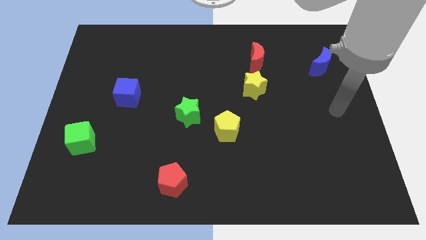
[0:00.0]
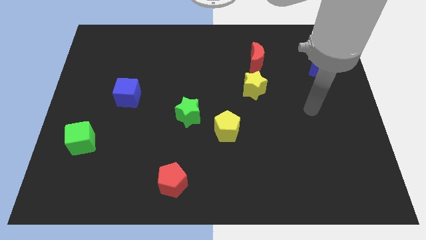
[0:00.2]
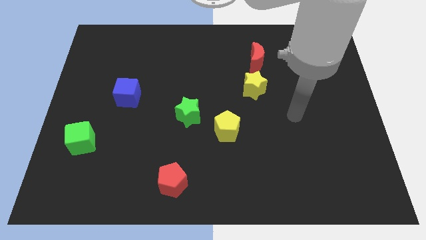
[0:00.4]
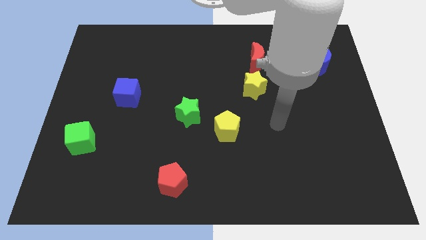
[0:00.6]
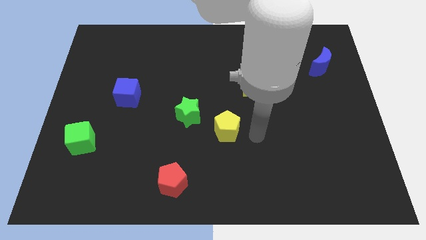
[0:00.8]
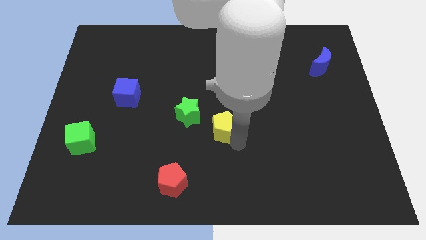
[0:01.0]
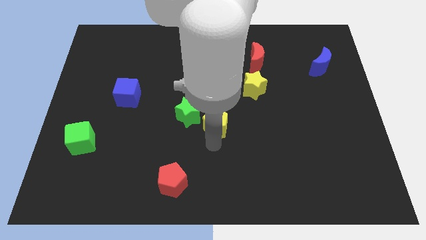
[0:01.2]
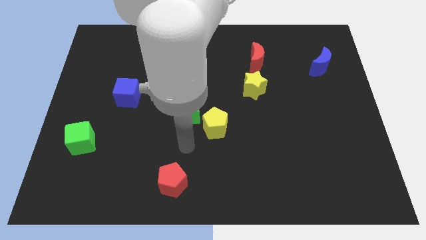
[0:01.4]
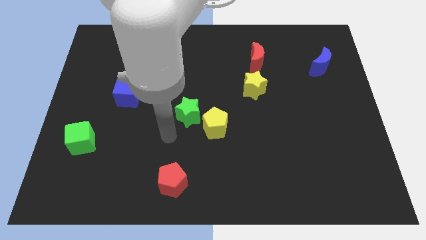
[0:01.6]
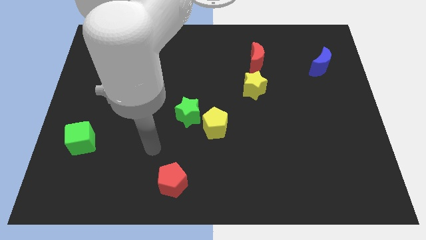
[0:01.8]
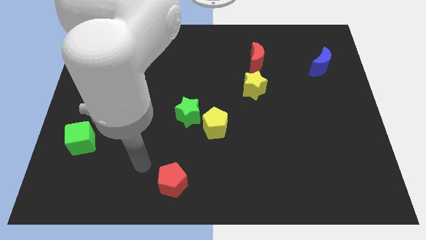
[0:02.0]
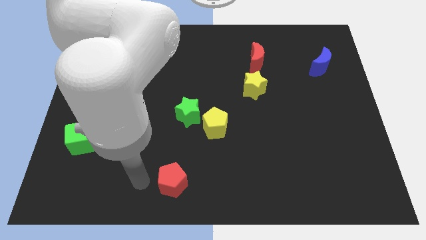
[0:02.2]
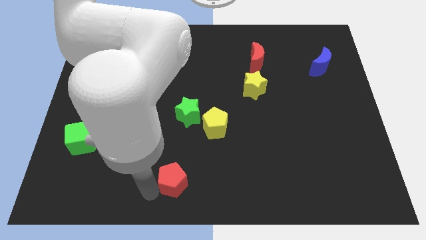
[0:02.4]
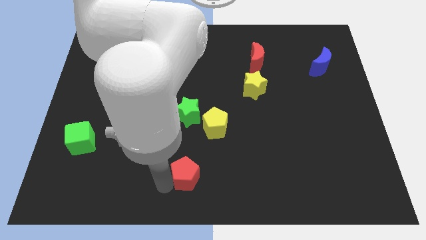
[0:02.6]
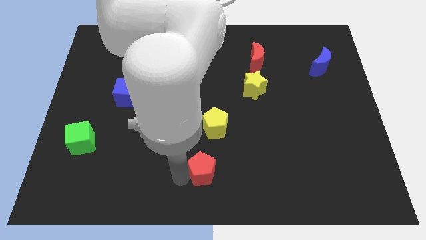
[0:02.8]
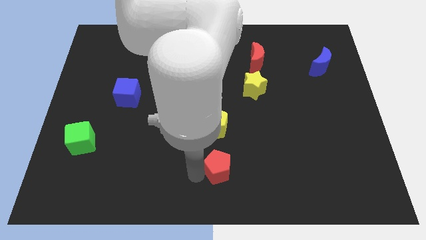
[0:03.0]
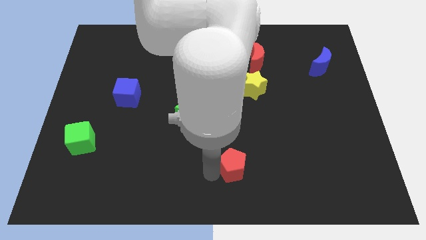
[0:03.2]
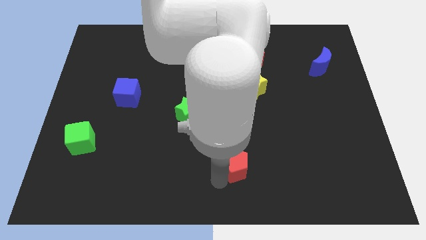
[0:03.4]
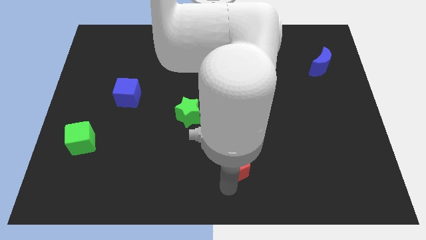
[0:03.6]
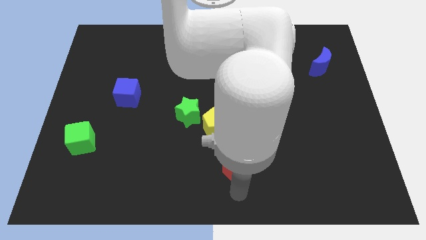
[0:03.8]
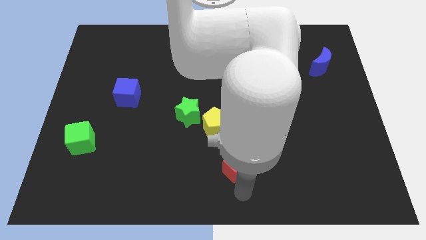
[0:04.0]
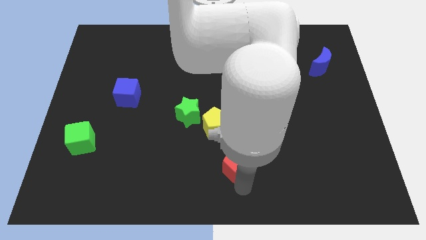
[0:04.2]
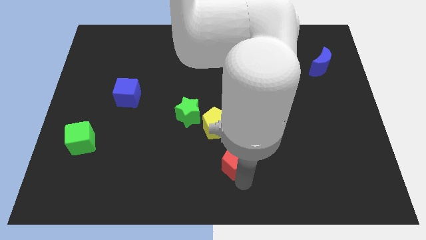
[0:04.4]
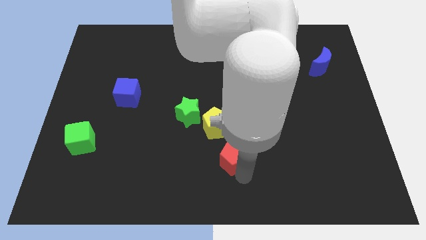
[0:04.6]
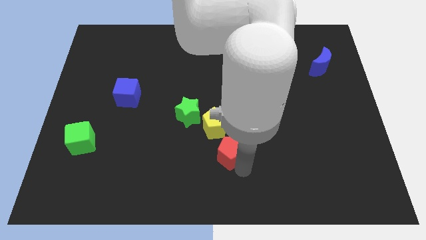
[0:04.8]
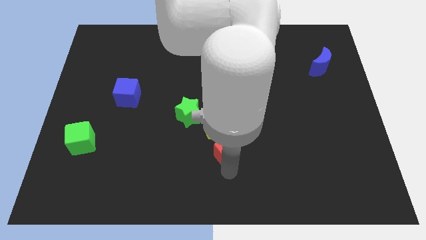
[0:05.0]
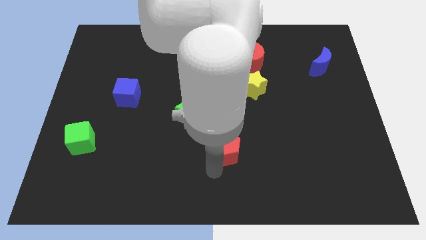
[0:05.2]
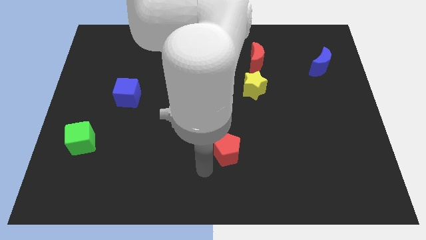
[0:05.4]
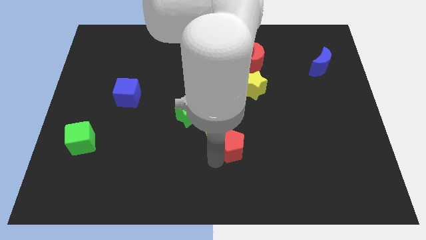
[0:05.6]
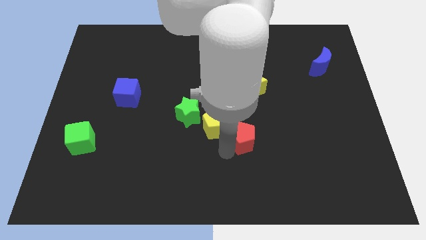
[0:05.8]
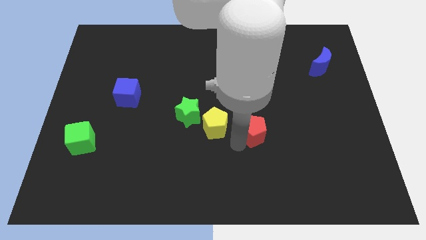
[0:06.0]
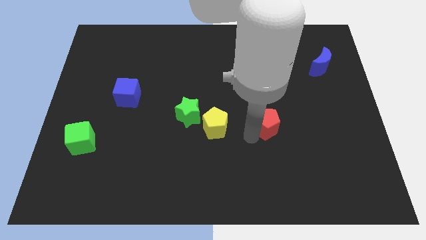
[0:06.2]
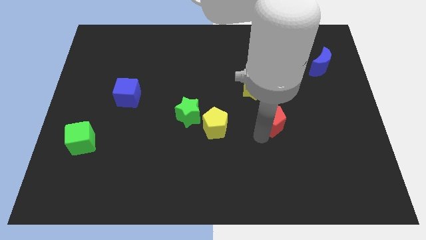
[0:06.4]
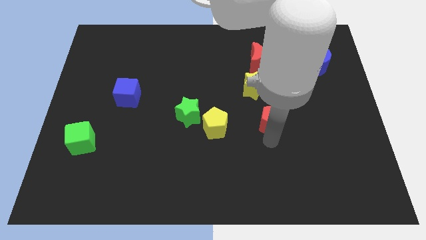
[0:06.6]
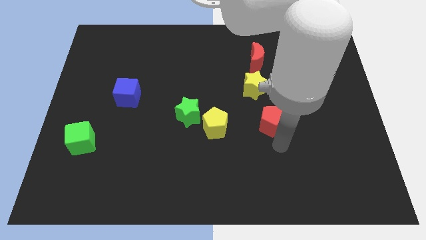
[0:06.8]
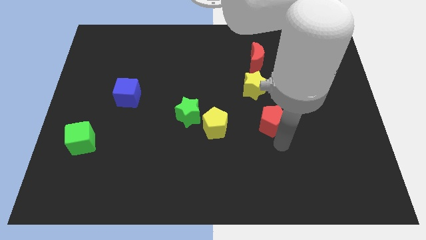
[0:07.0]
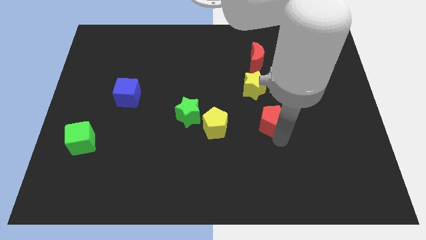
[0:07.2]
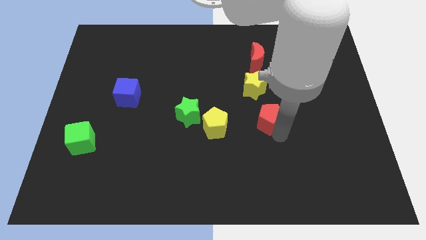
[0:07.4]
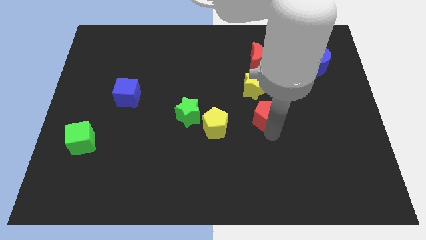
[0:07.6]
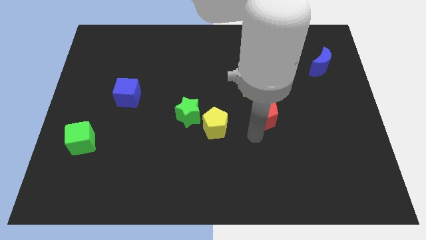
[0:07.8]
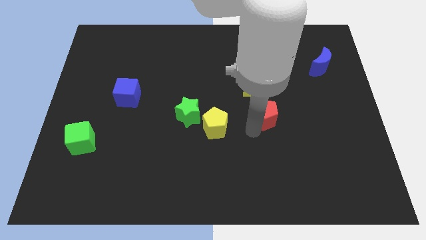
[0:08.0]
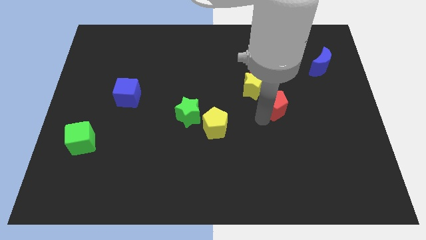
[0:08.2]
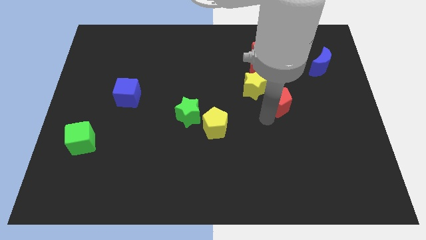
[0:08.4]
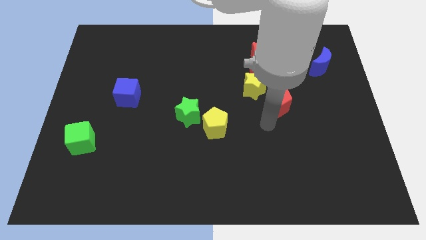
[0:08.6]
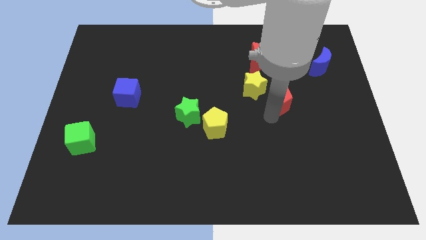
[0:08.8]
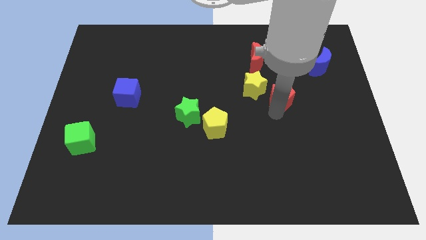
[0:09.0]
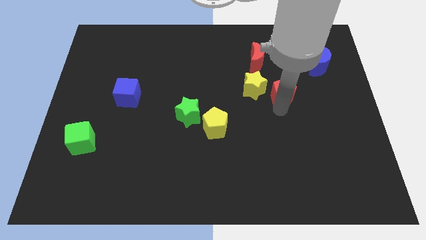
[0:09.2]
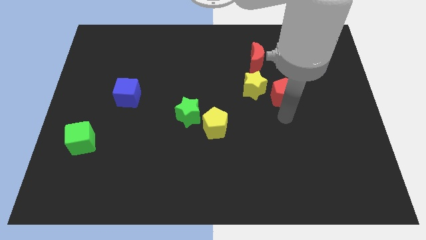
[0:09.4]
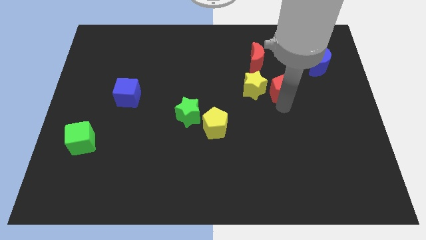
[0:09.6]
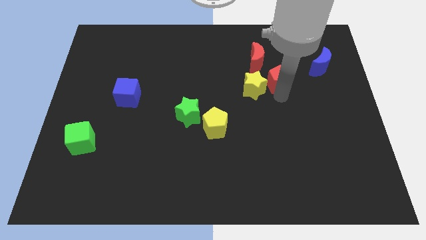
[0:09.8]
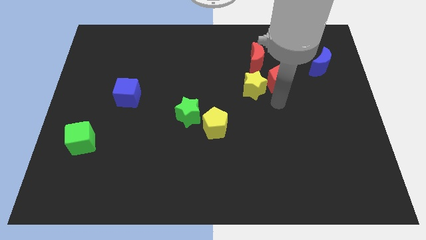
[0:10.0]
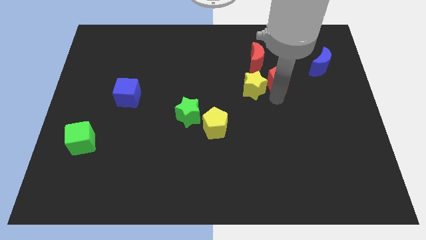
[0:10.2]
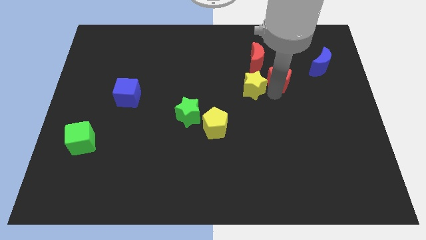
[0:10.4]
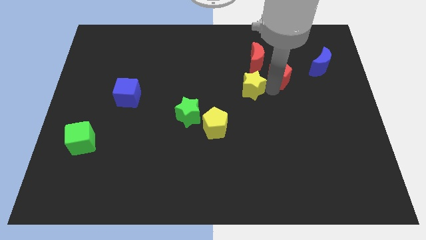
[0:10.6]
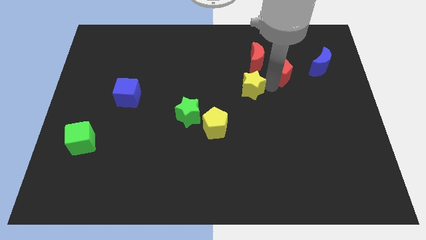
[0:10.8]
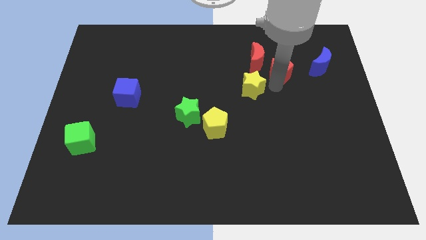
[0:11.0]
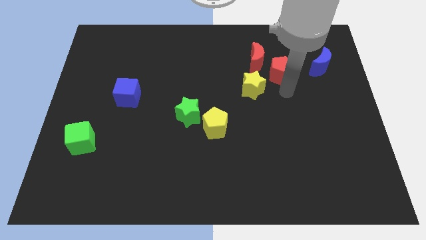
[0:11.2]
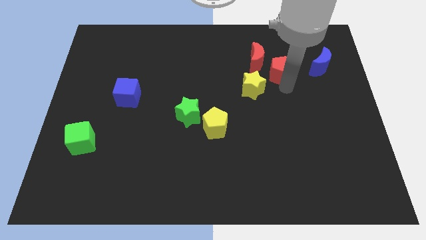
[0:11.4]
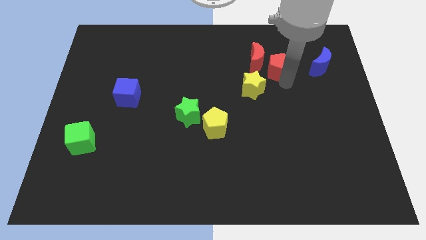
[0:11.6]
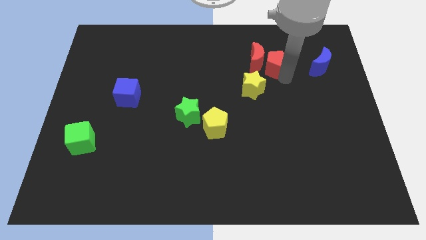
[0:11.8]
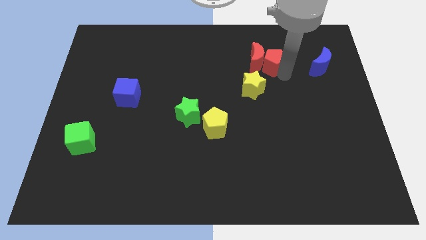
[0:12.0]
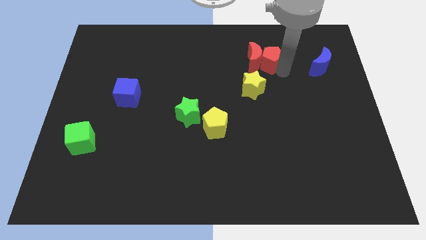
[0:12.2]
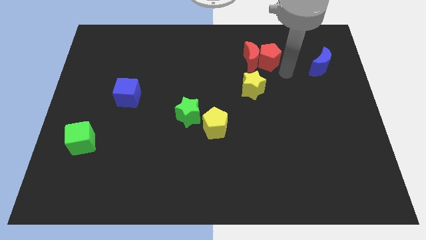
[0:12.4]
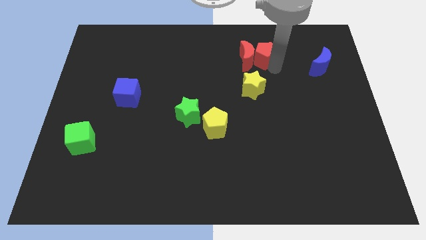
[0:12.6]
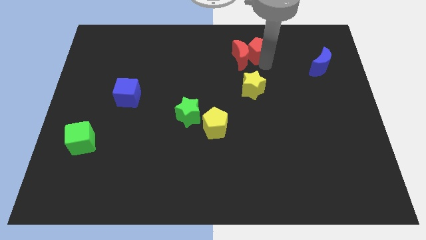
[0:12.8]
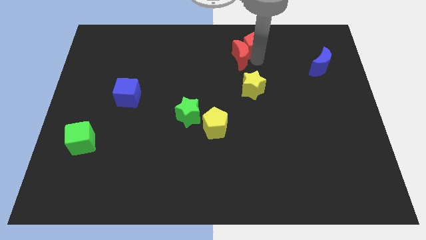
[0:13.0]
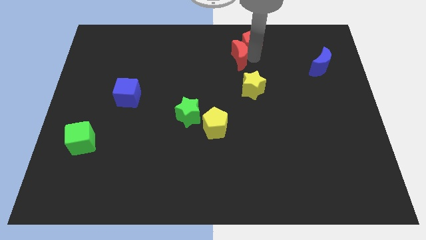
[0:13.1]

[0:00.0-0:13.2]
move the red pentagon to the top side
